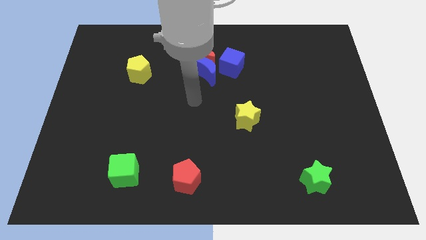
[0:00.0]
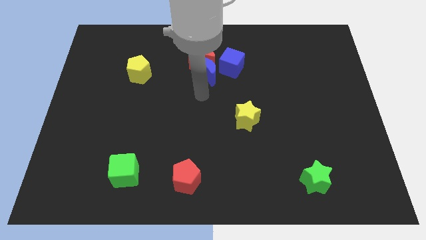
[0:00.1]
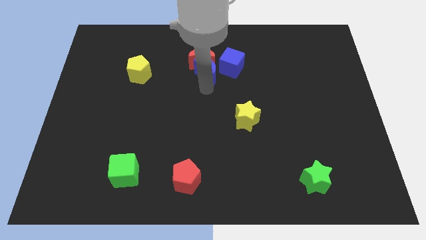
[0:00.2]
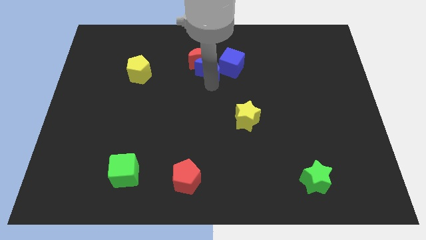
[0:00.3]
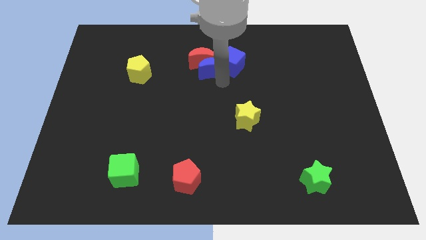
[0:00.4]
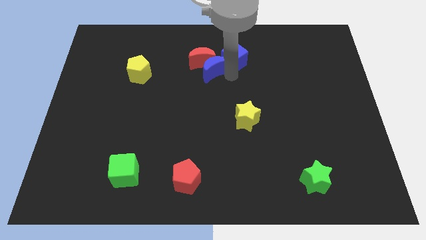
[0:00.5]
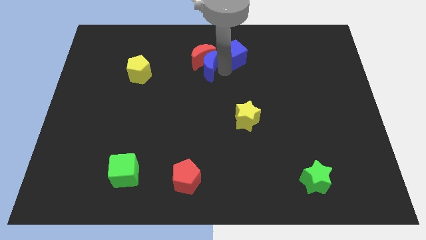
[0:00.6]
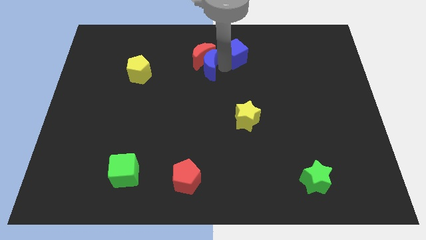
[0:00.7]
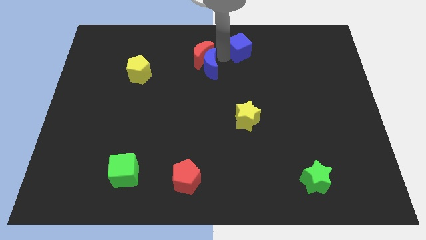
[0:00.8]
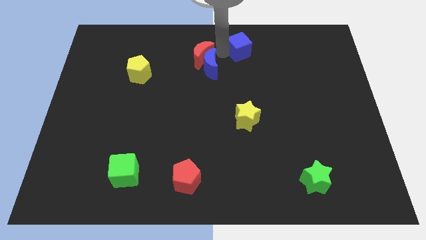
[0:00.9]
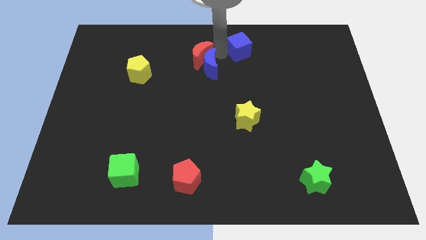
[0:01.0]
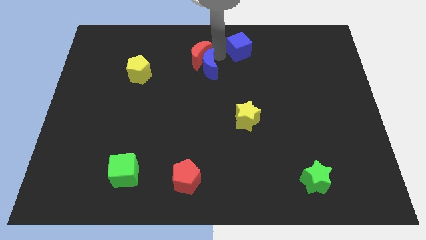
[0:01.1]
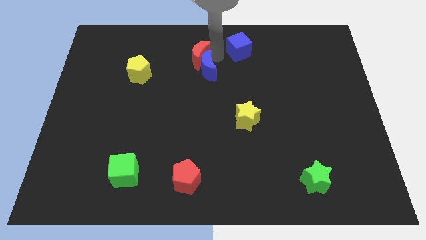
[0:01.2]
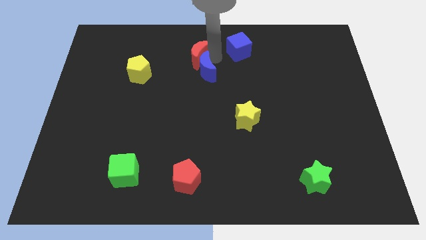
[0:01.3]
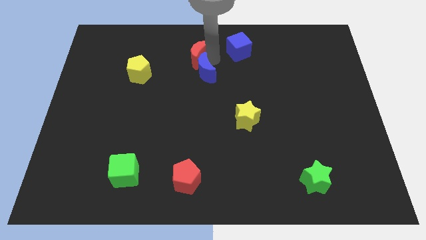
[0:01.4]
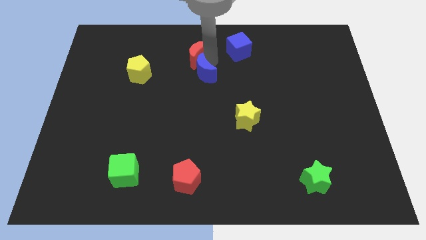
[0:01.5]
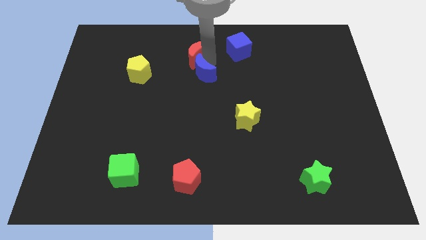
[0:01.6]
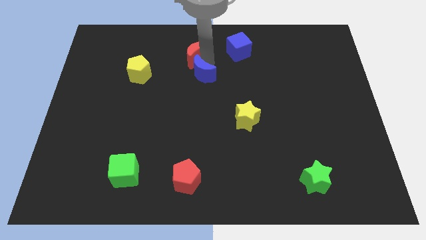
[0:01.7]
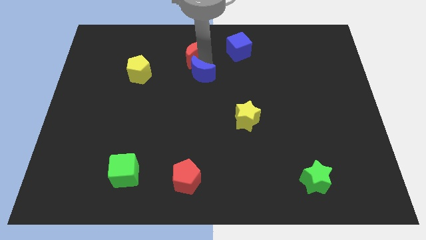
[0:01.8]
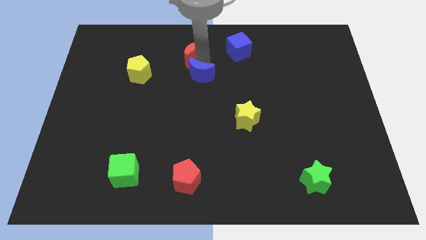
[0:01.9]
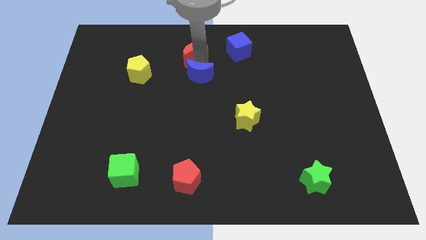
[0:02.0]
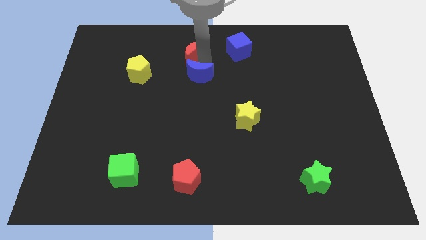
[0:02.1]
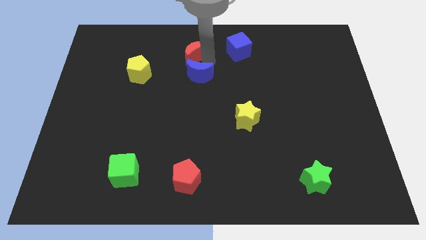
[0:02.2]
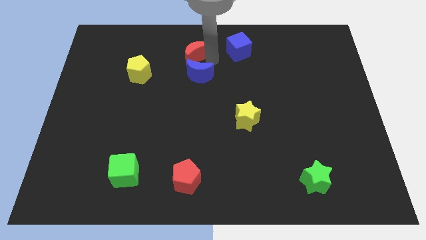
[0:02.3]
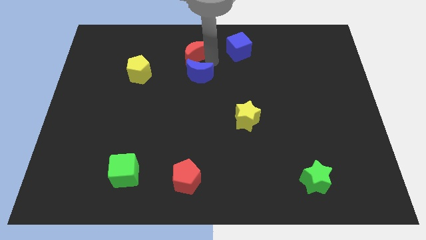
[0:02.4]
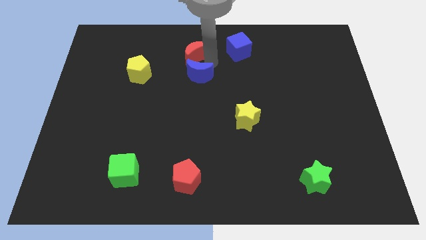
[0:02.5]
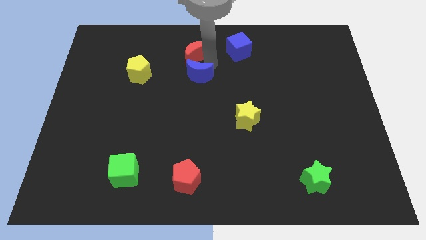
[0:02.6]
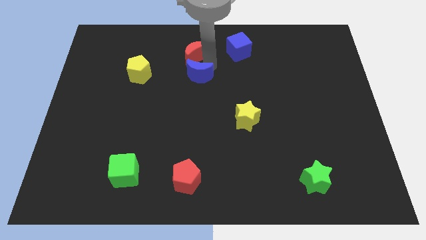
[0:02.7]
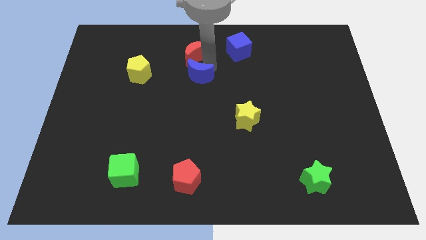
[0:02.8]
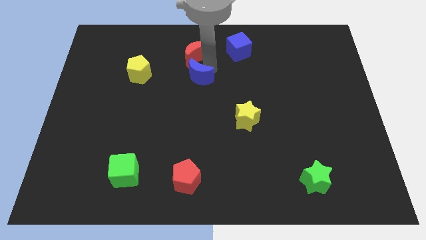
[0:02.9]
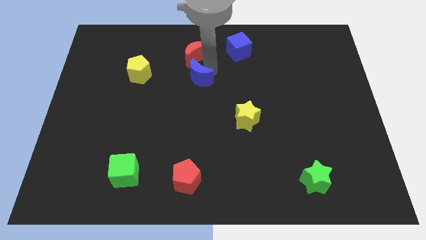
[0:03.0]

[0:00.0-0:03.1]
move the blue moon away from the red moon and blue cube

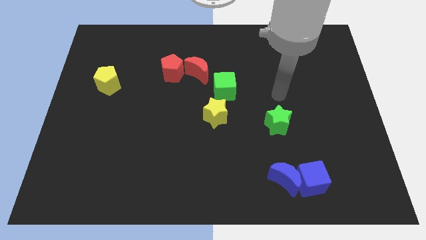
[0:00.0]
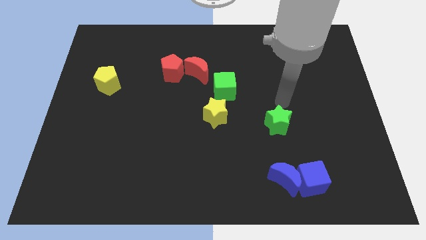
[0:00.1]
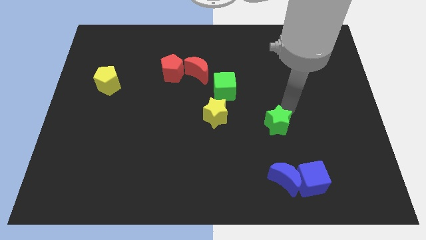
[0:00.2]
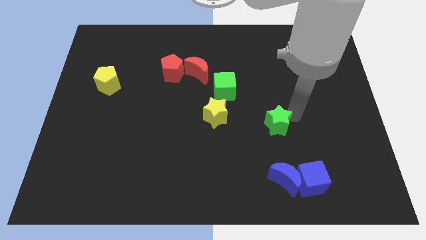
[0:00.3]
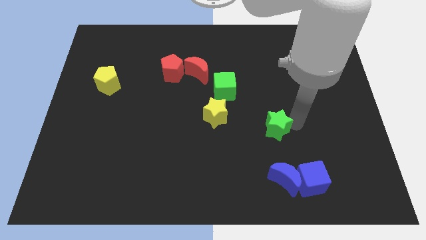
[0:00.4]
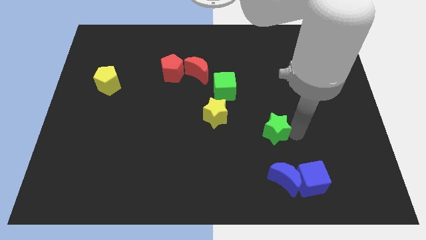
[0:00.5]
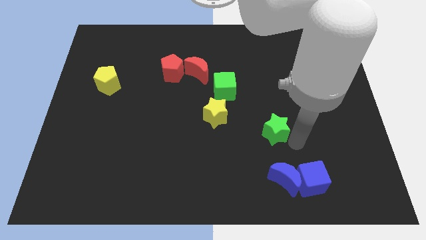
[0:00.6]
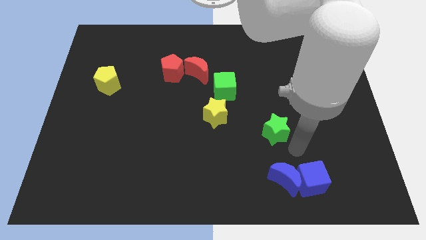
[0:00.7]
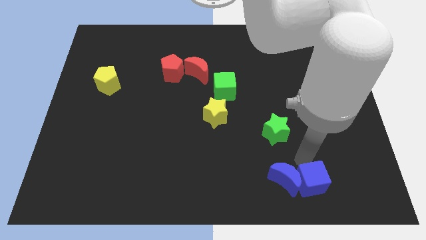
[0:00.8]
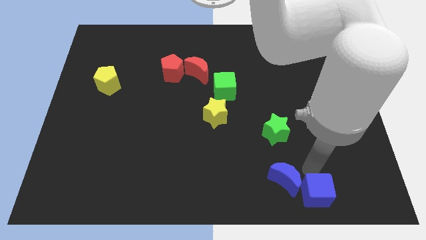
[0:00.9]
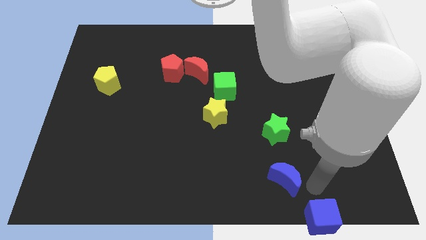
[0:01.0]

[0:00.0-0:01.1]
move the blue moon away from the blue cube

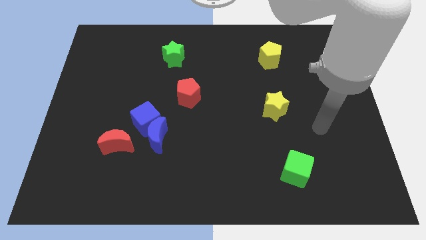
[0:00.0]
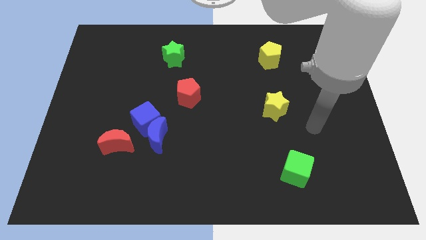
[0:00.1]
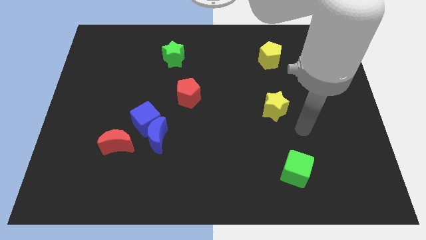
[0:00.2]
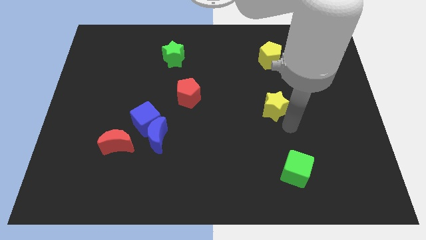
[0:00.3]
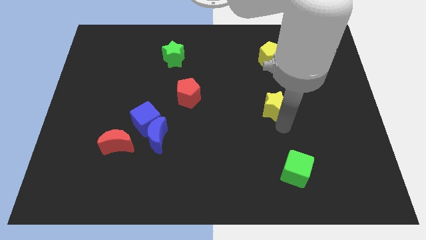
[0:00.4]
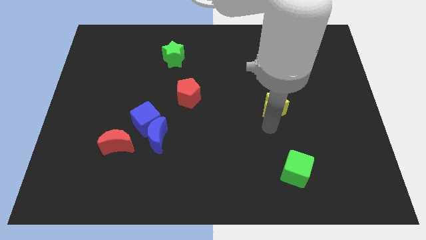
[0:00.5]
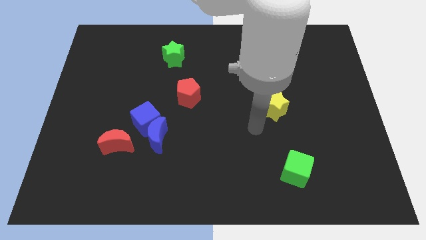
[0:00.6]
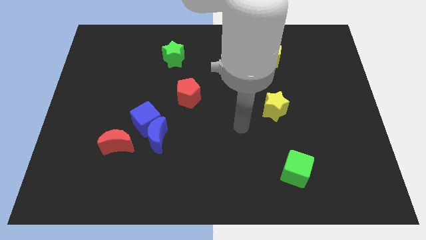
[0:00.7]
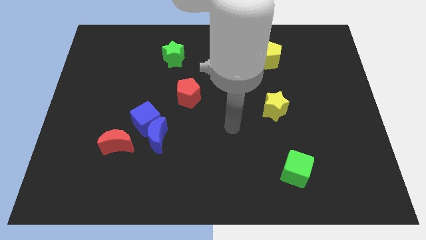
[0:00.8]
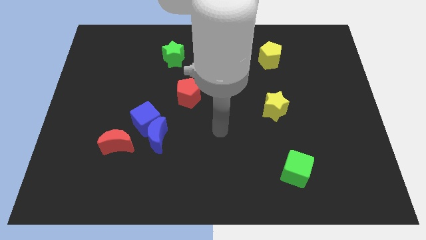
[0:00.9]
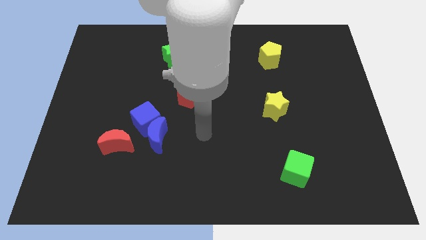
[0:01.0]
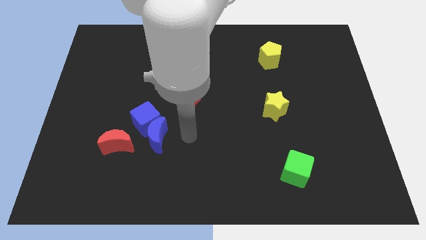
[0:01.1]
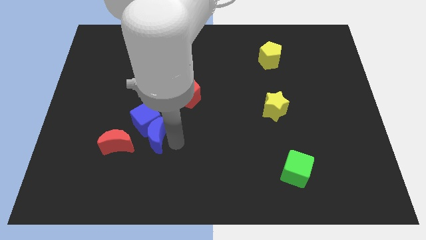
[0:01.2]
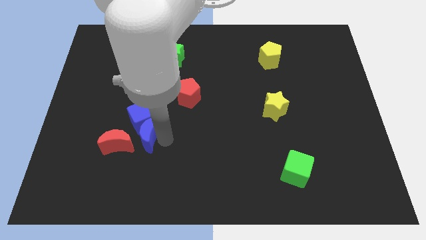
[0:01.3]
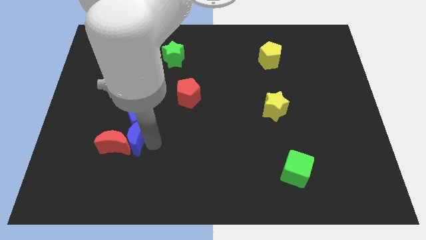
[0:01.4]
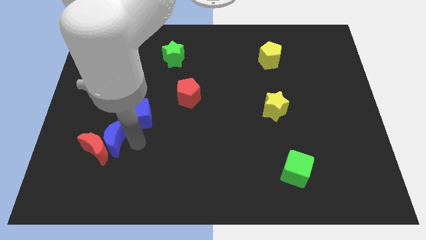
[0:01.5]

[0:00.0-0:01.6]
separate the blue cube from the blue moon and red moon

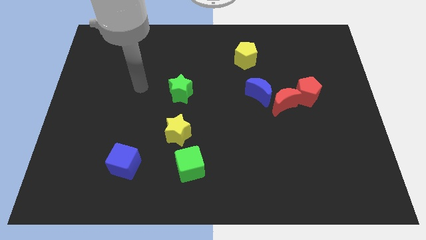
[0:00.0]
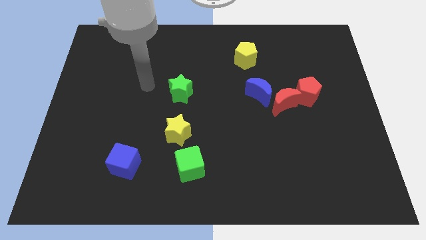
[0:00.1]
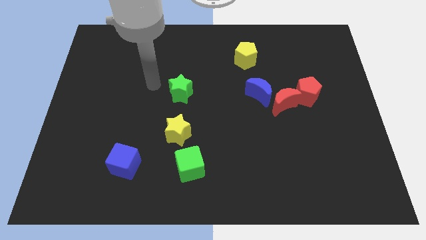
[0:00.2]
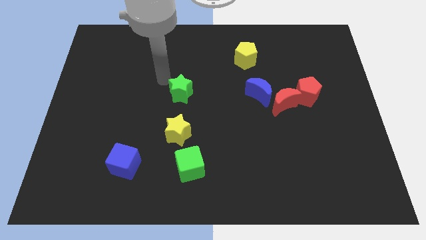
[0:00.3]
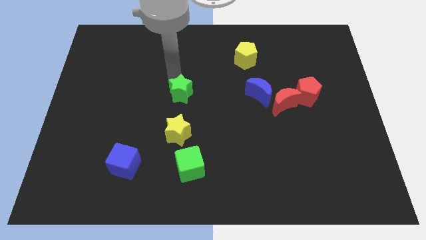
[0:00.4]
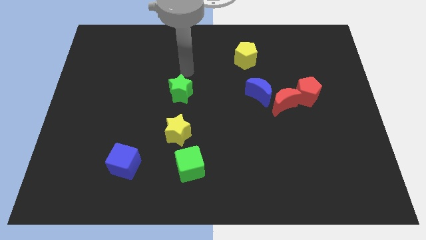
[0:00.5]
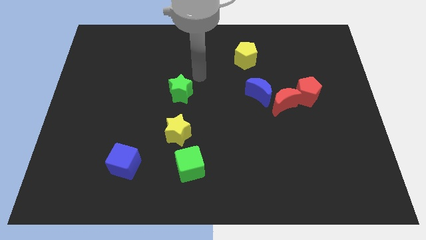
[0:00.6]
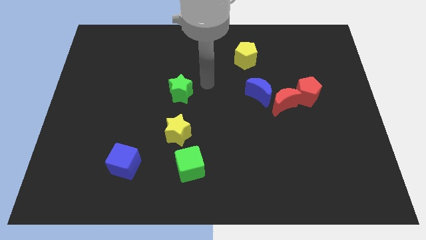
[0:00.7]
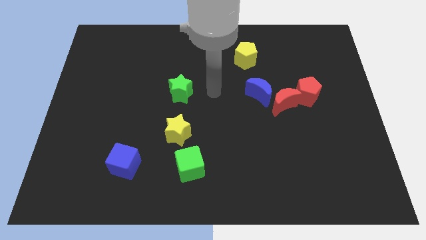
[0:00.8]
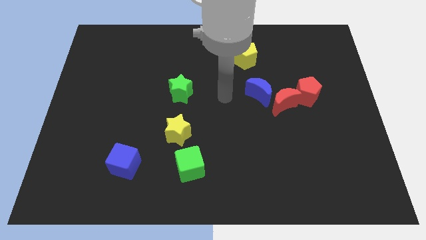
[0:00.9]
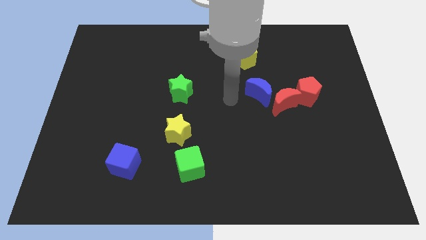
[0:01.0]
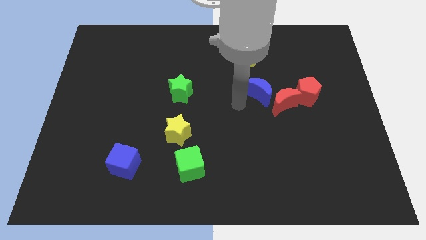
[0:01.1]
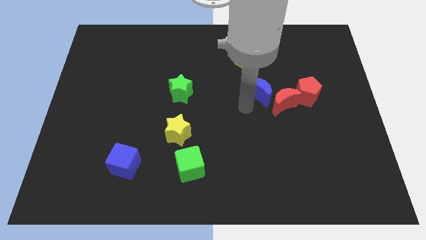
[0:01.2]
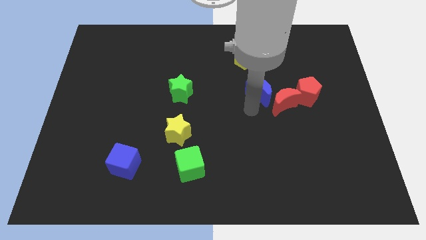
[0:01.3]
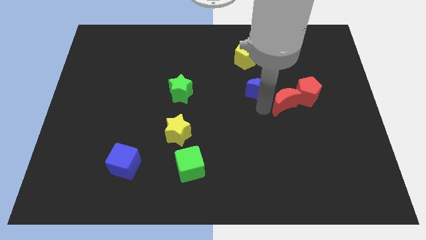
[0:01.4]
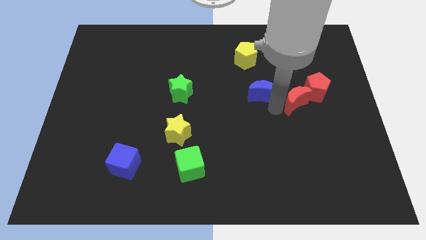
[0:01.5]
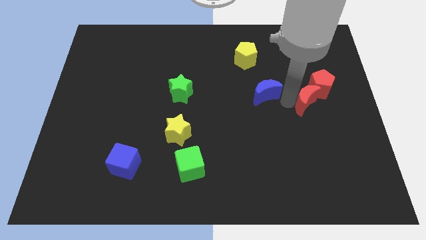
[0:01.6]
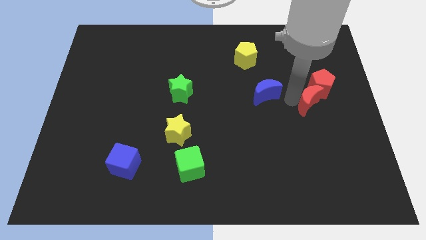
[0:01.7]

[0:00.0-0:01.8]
separate the blue moon from the red moon

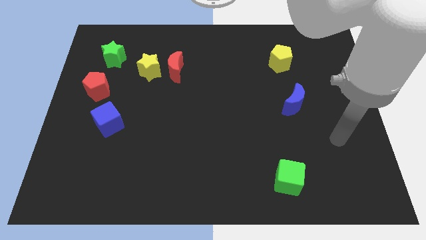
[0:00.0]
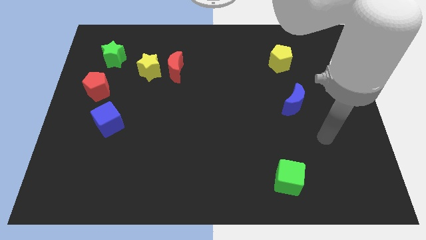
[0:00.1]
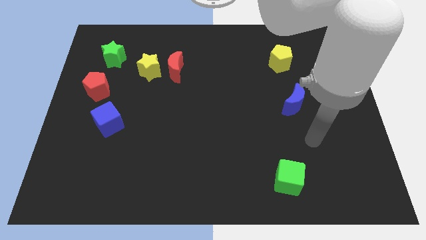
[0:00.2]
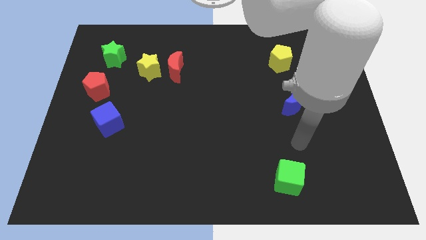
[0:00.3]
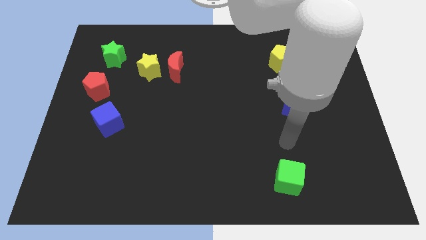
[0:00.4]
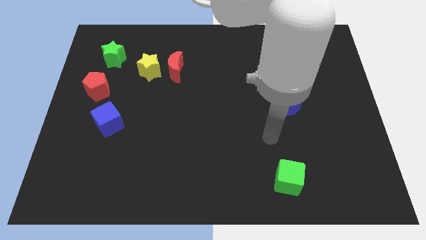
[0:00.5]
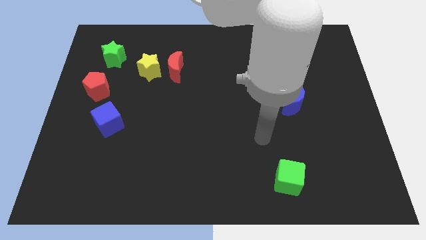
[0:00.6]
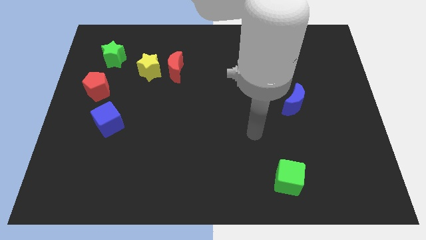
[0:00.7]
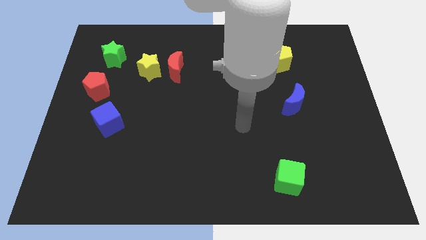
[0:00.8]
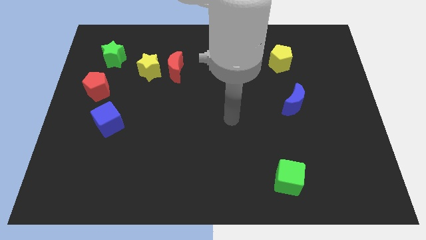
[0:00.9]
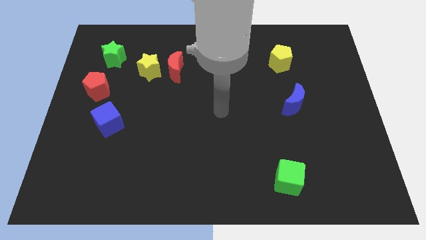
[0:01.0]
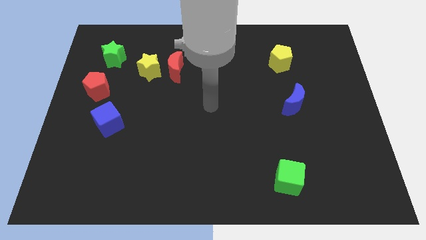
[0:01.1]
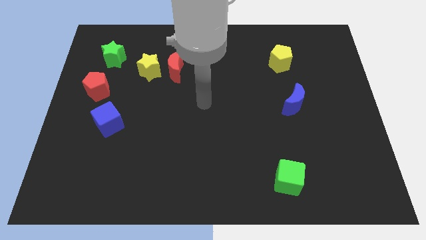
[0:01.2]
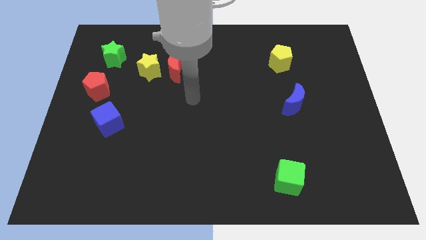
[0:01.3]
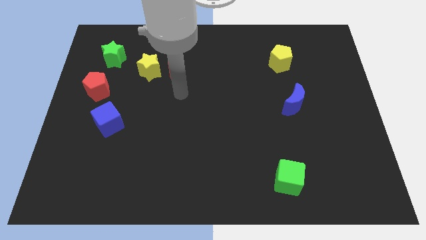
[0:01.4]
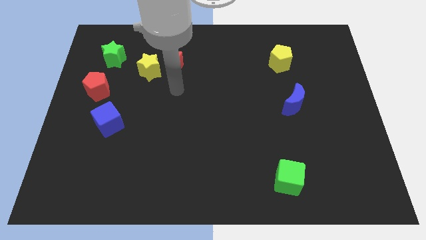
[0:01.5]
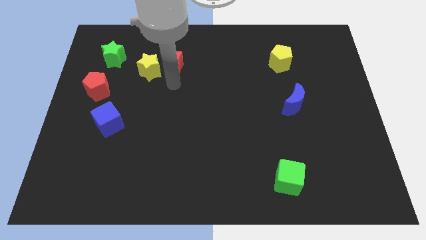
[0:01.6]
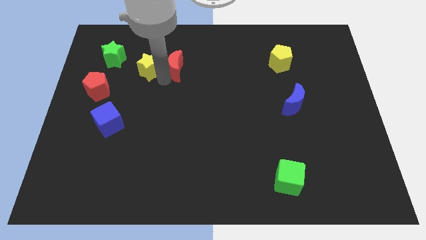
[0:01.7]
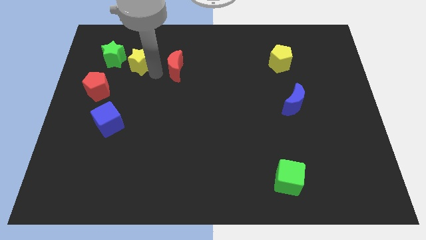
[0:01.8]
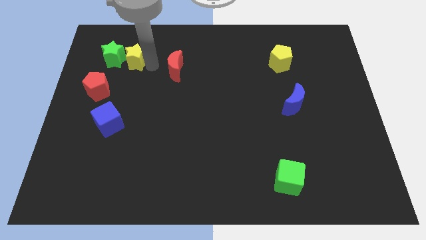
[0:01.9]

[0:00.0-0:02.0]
pull the red moon apart from the yellow star
